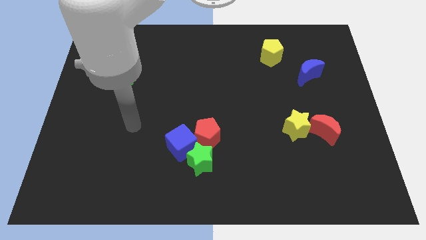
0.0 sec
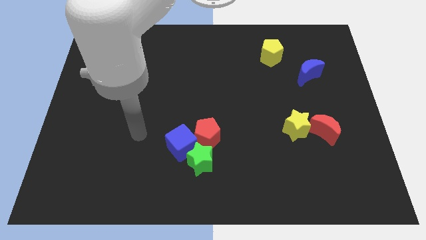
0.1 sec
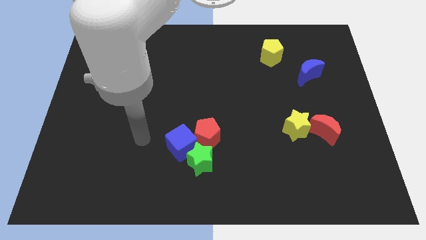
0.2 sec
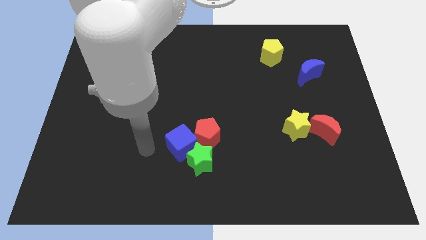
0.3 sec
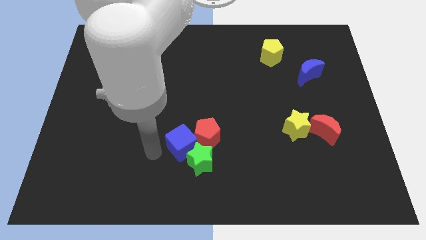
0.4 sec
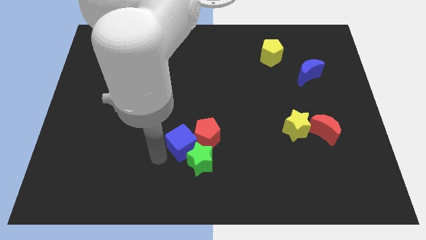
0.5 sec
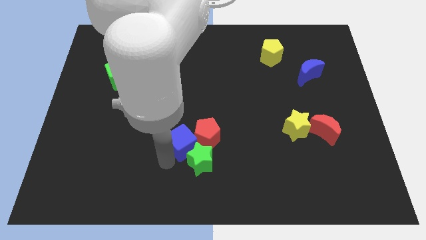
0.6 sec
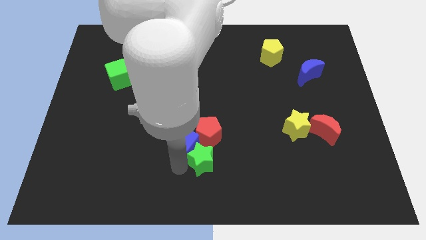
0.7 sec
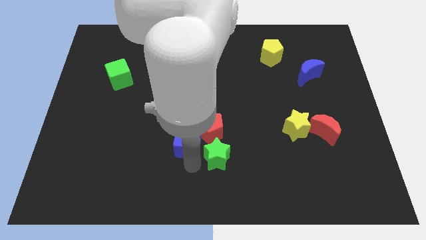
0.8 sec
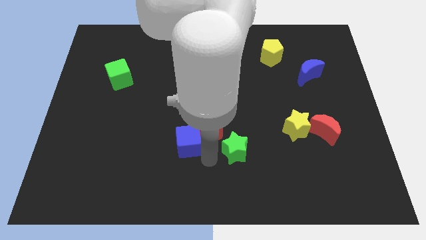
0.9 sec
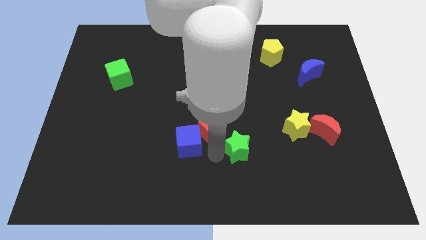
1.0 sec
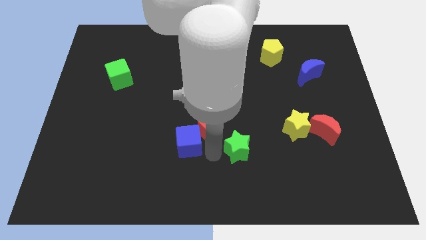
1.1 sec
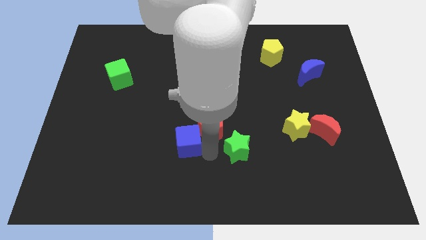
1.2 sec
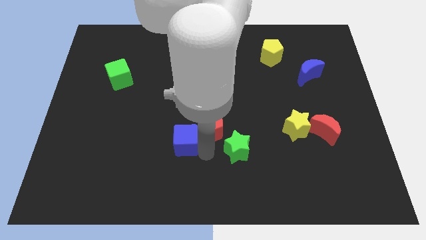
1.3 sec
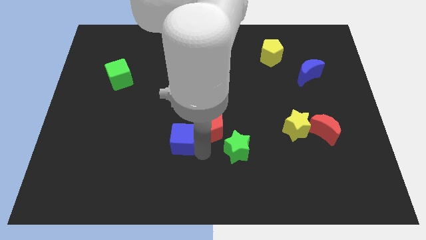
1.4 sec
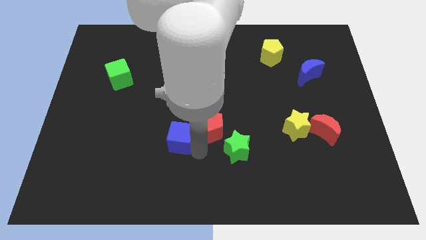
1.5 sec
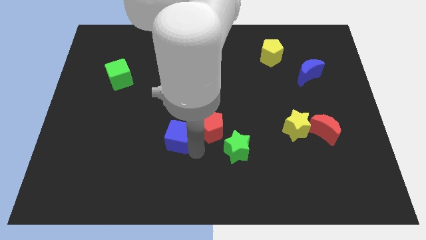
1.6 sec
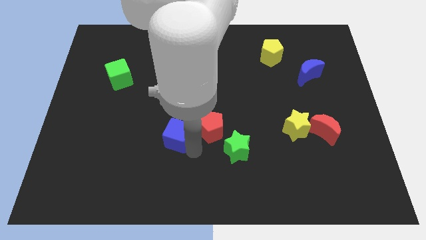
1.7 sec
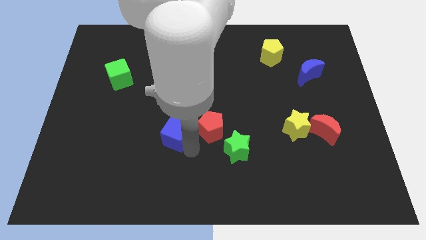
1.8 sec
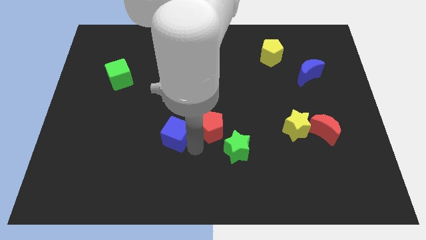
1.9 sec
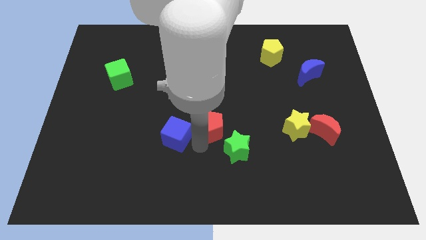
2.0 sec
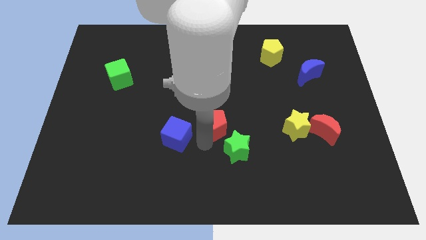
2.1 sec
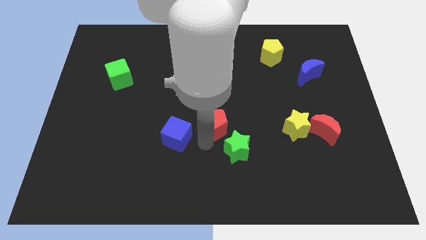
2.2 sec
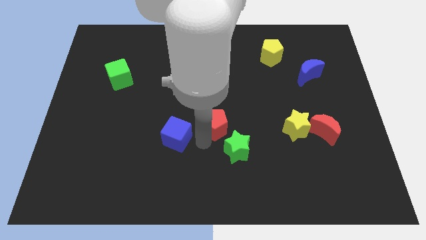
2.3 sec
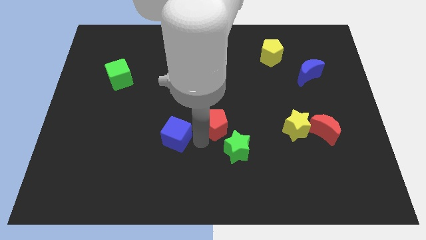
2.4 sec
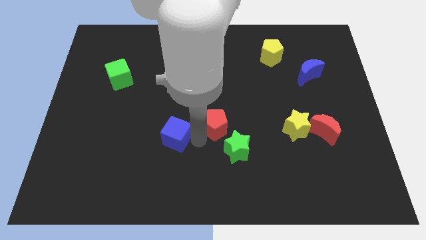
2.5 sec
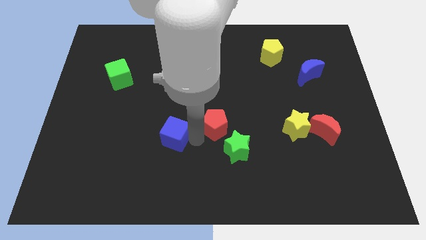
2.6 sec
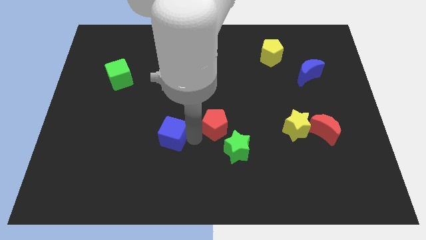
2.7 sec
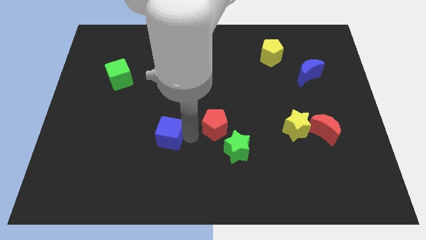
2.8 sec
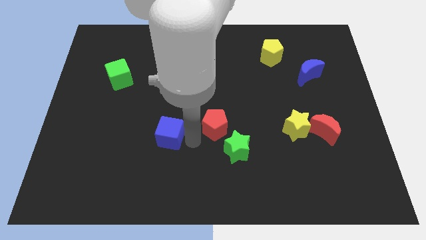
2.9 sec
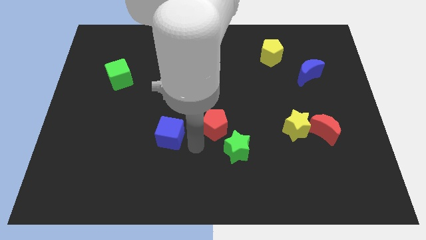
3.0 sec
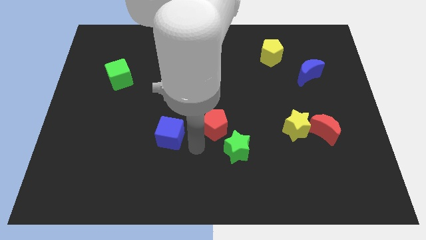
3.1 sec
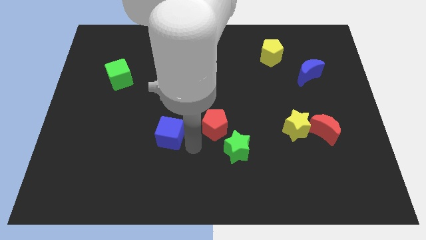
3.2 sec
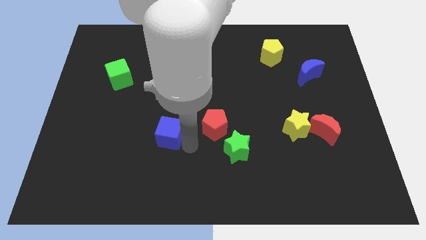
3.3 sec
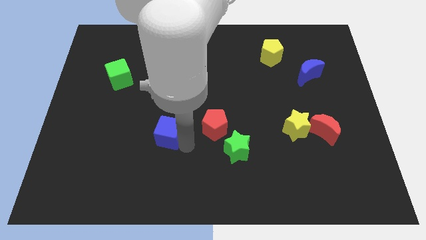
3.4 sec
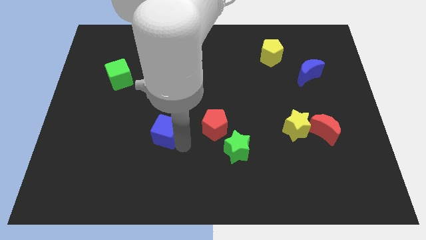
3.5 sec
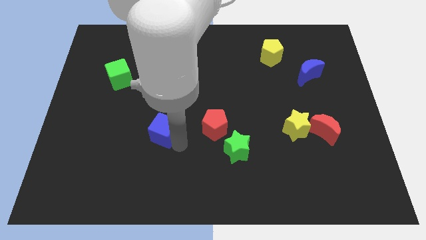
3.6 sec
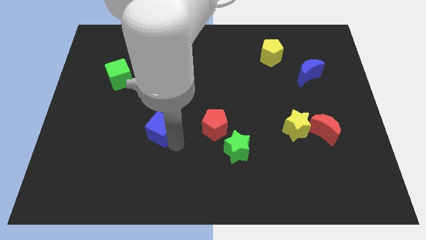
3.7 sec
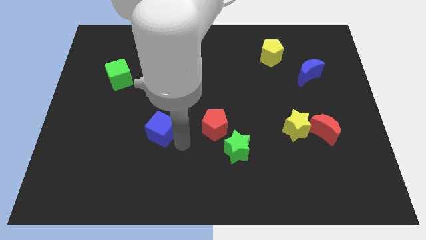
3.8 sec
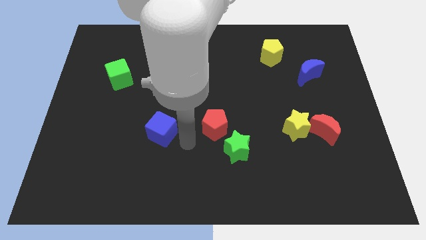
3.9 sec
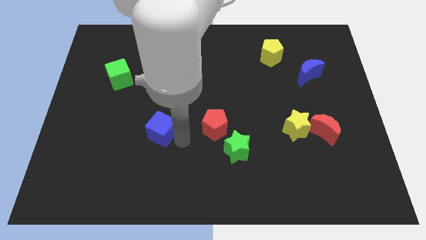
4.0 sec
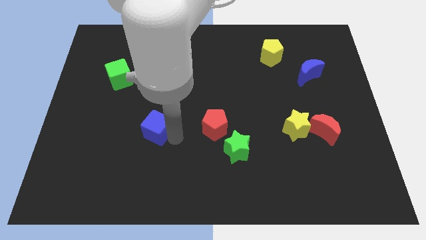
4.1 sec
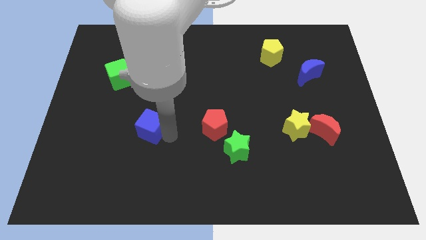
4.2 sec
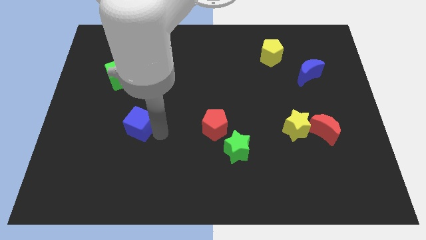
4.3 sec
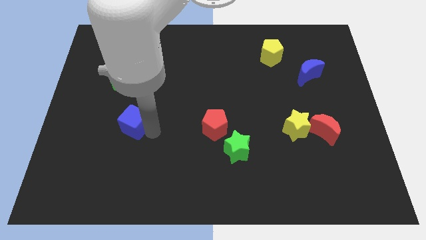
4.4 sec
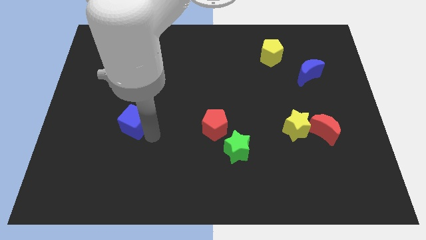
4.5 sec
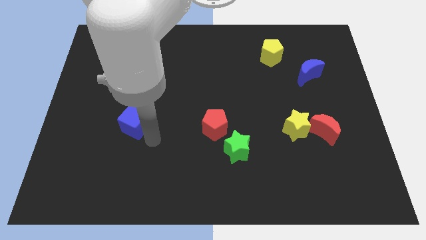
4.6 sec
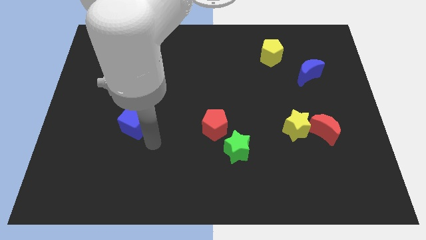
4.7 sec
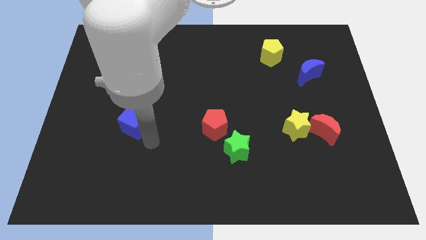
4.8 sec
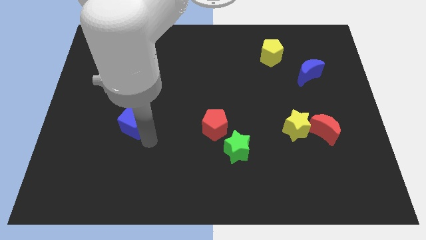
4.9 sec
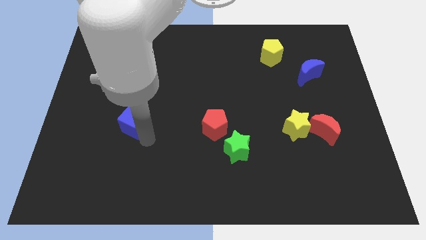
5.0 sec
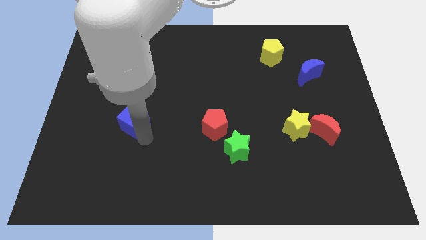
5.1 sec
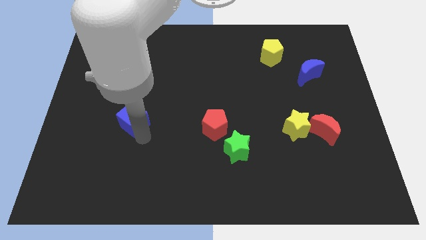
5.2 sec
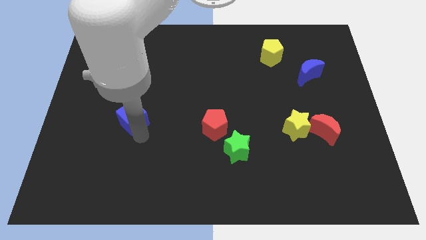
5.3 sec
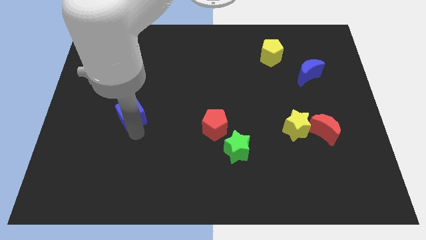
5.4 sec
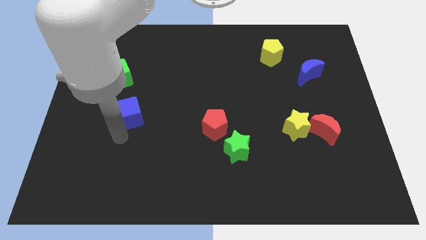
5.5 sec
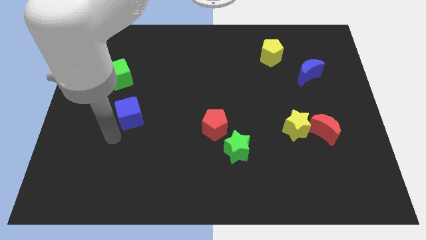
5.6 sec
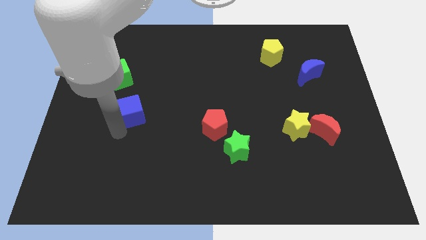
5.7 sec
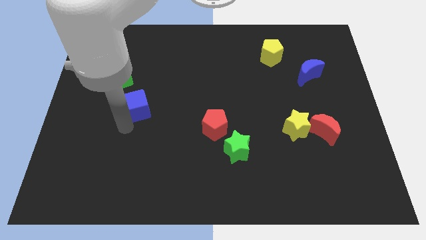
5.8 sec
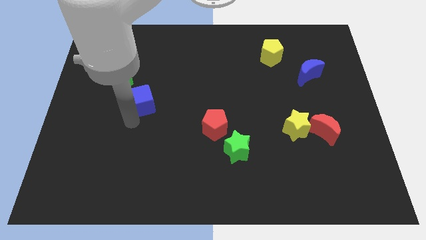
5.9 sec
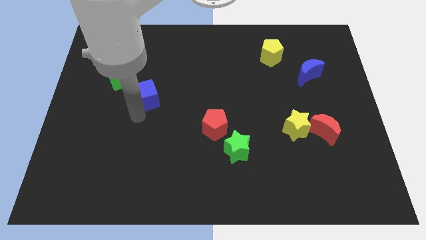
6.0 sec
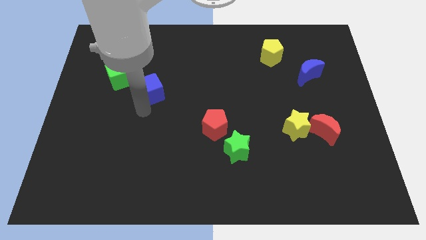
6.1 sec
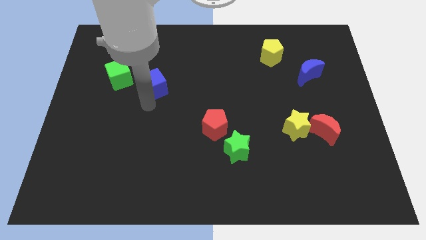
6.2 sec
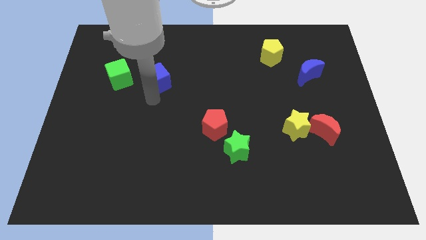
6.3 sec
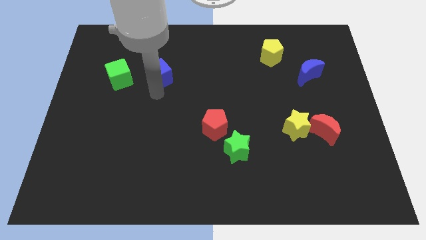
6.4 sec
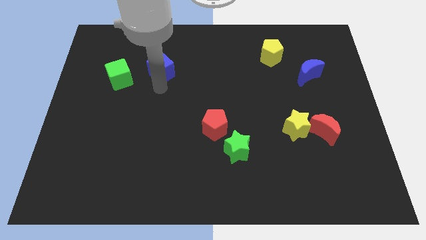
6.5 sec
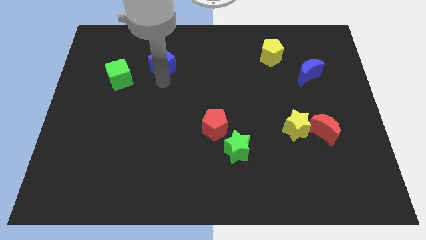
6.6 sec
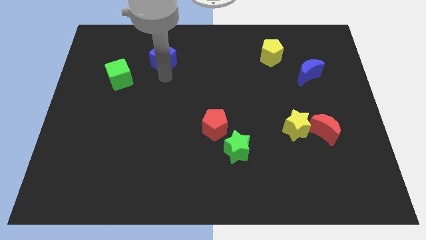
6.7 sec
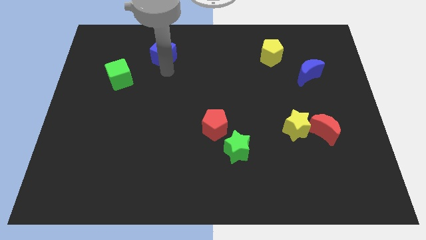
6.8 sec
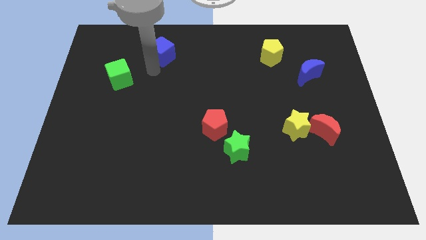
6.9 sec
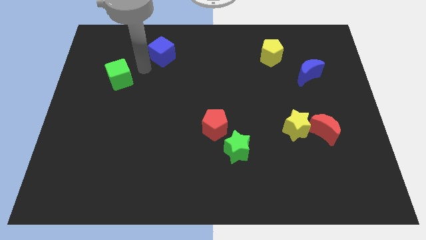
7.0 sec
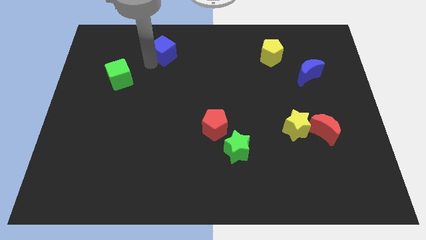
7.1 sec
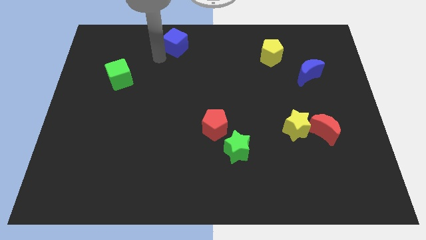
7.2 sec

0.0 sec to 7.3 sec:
move the blue cube to the top side
